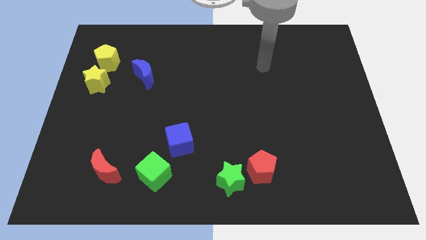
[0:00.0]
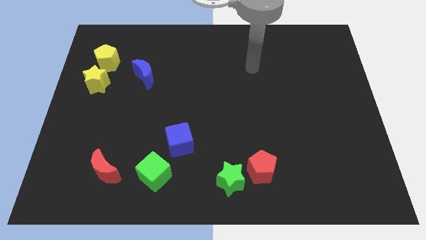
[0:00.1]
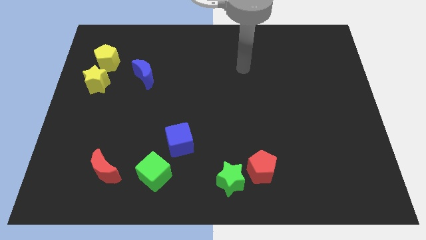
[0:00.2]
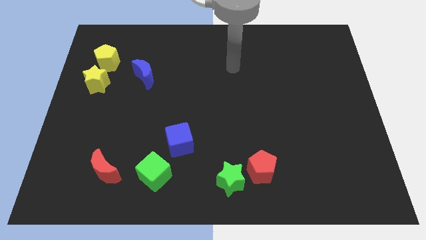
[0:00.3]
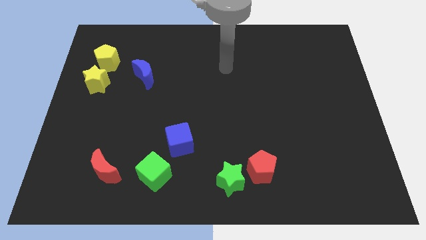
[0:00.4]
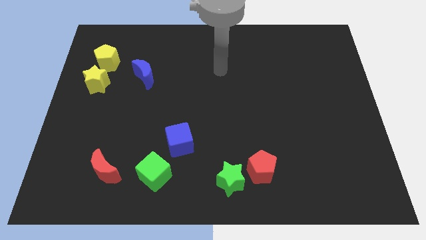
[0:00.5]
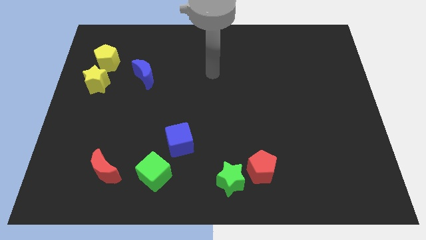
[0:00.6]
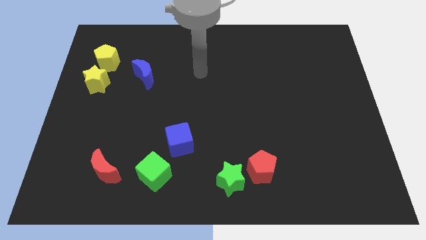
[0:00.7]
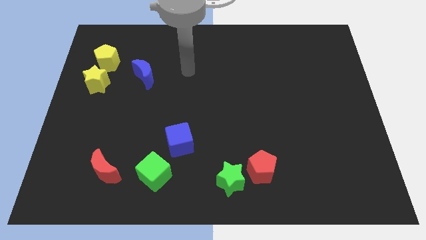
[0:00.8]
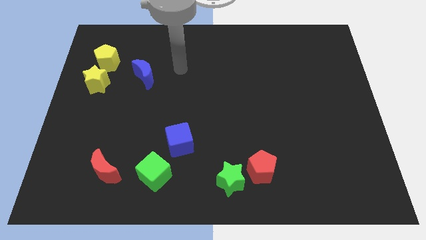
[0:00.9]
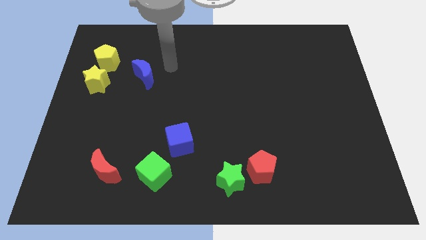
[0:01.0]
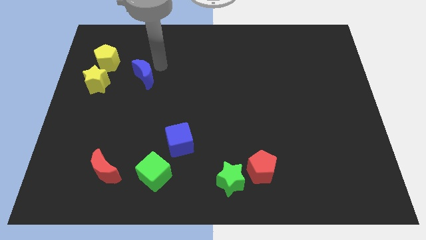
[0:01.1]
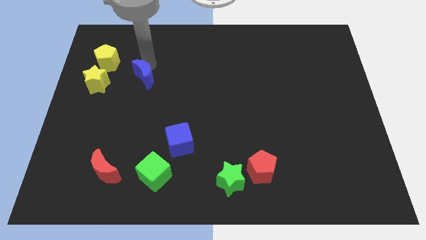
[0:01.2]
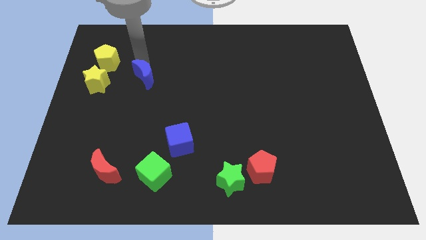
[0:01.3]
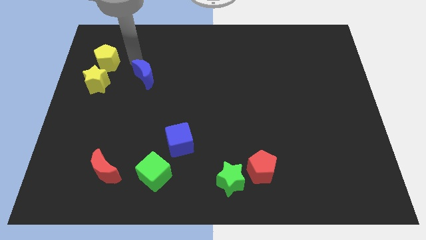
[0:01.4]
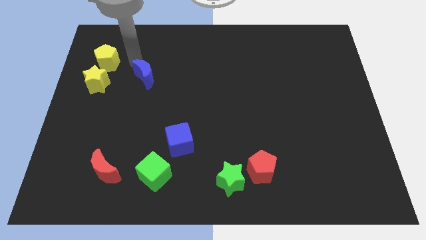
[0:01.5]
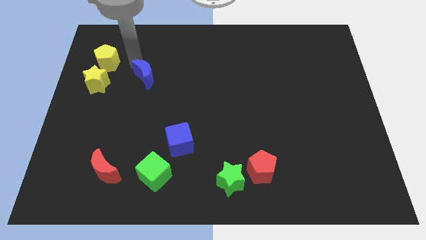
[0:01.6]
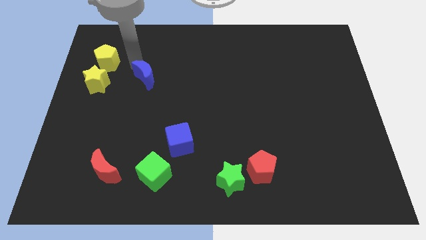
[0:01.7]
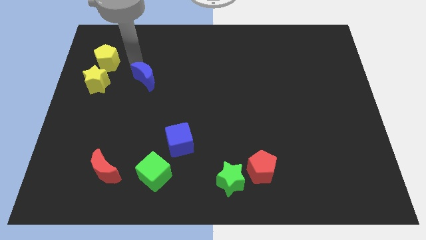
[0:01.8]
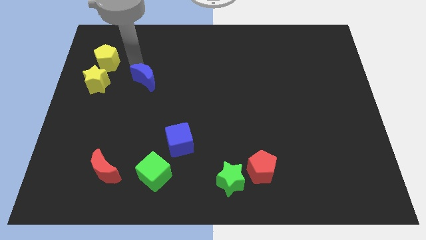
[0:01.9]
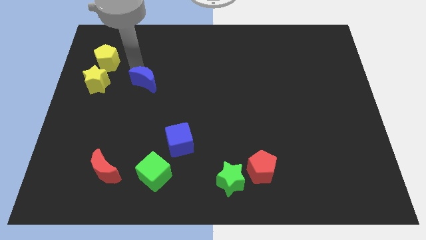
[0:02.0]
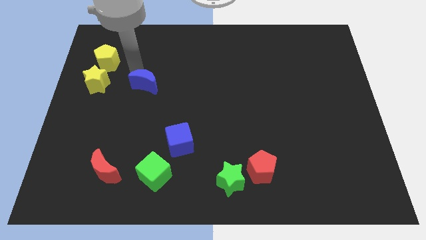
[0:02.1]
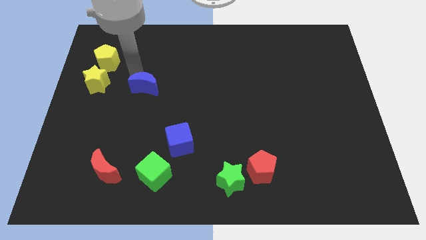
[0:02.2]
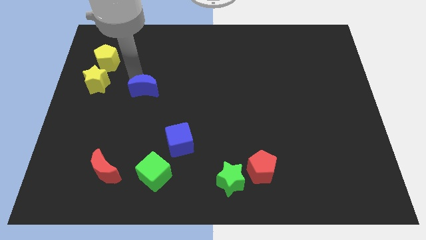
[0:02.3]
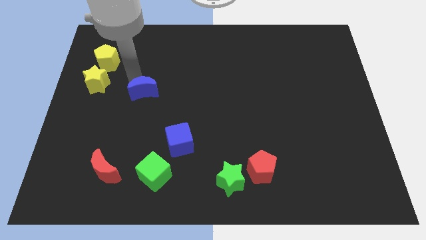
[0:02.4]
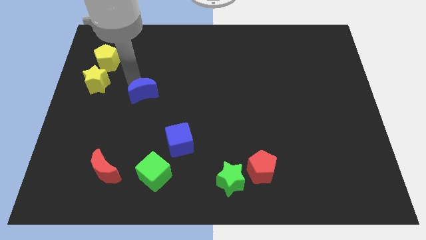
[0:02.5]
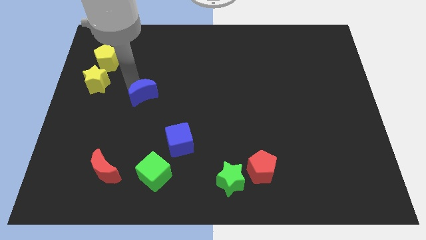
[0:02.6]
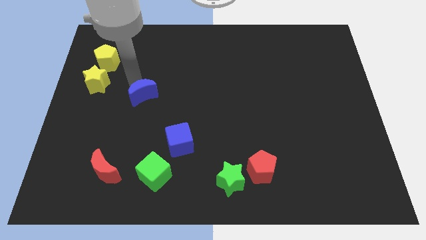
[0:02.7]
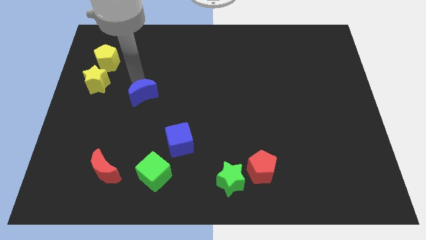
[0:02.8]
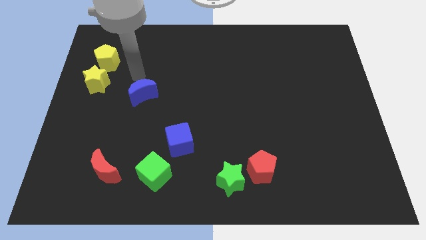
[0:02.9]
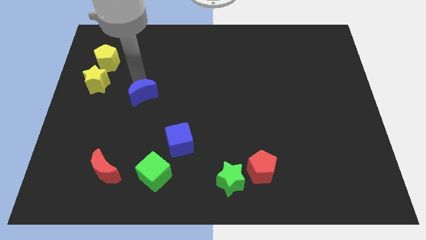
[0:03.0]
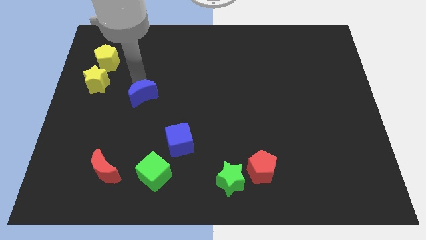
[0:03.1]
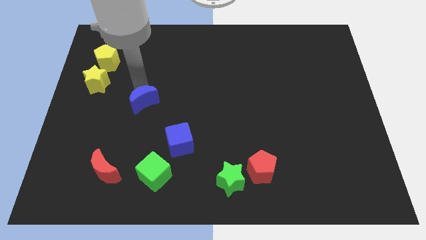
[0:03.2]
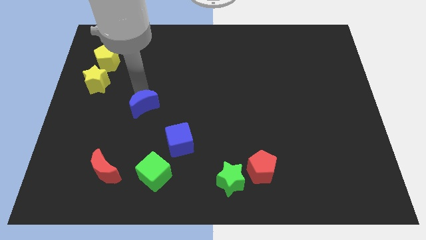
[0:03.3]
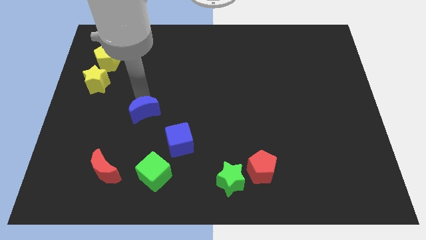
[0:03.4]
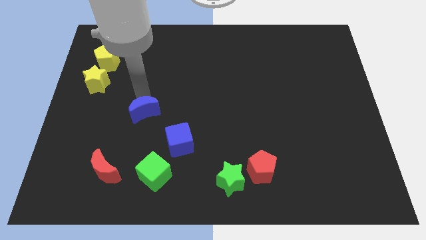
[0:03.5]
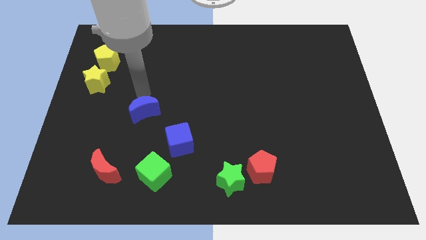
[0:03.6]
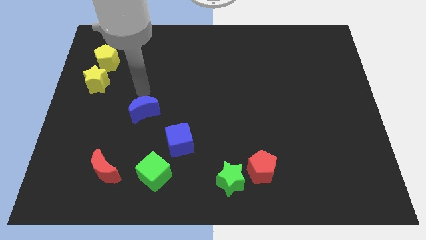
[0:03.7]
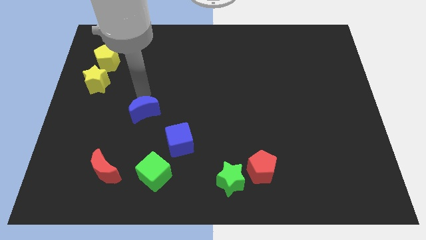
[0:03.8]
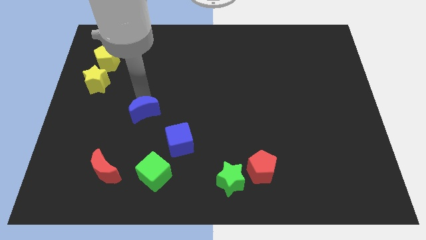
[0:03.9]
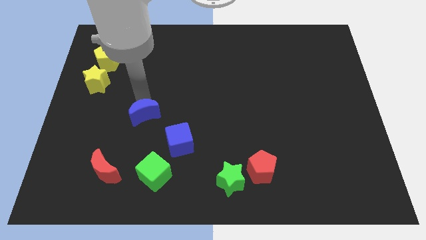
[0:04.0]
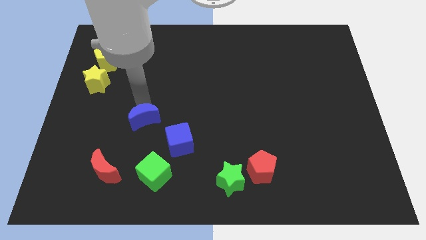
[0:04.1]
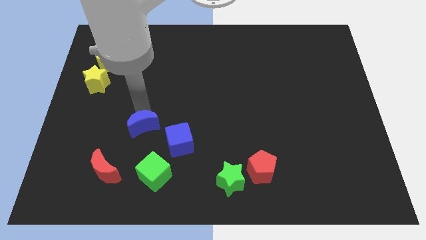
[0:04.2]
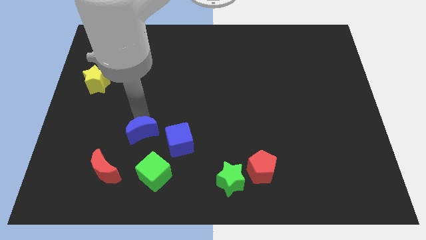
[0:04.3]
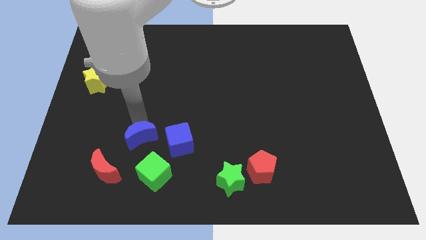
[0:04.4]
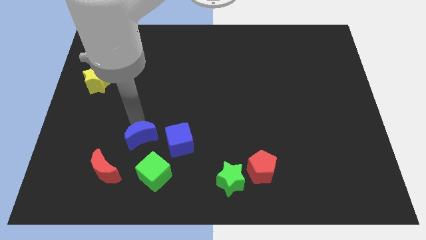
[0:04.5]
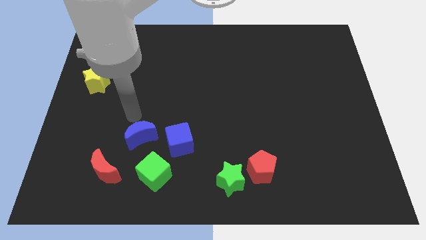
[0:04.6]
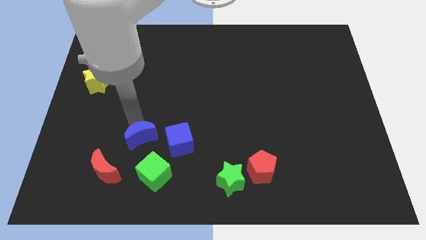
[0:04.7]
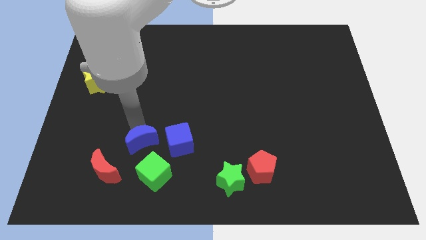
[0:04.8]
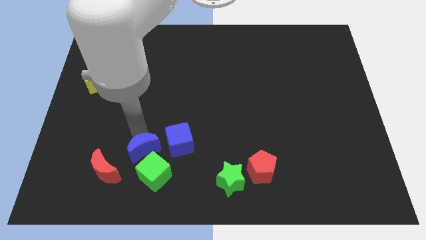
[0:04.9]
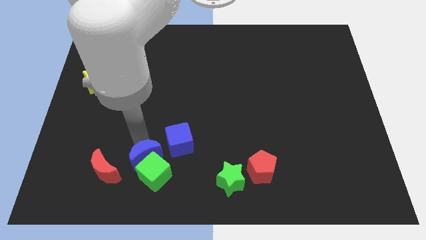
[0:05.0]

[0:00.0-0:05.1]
move the blue moon towards the green cube

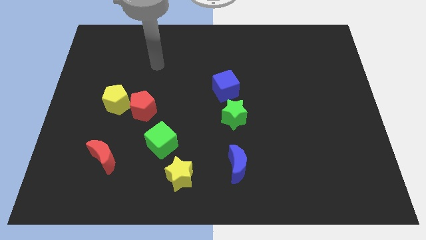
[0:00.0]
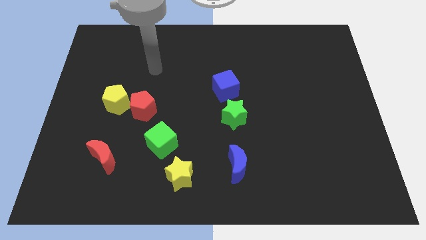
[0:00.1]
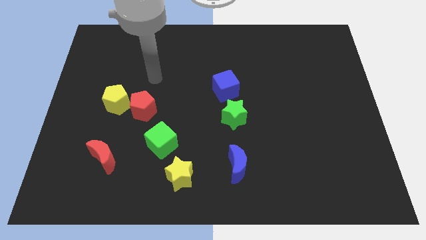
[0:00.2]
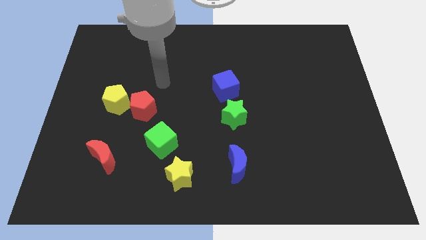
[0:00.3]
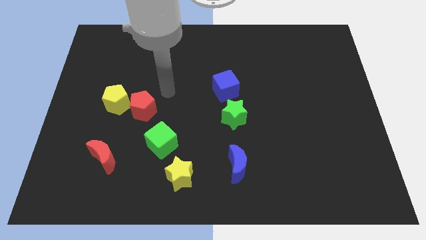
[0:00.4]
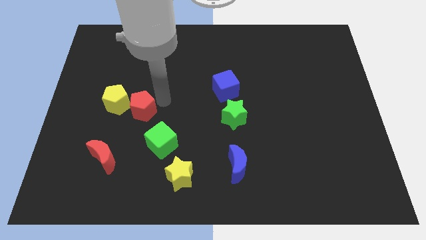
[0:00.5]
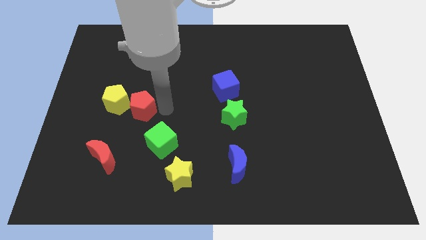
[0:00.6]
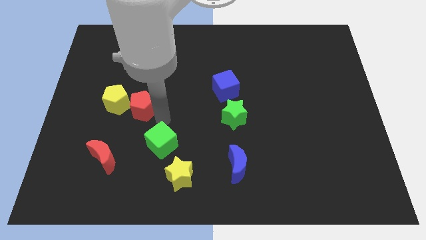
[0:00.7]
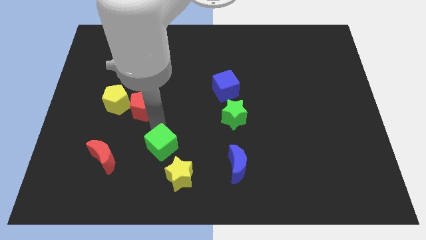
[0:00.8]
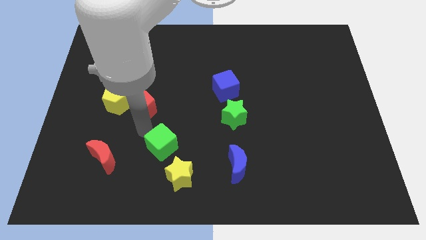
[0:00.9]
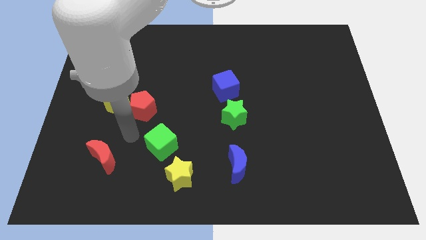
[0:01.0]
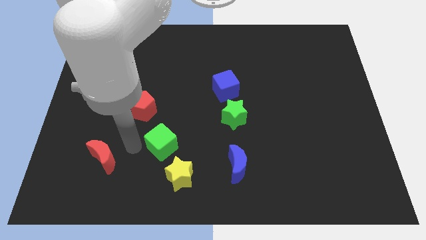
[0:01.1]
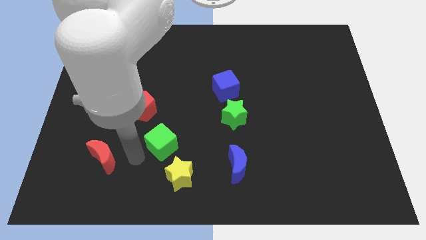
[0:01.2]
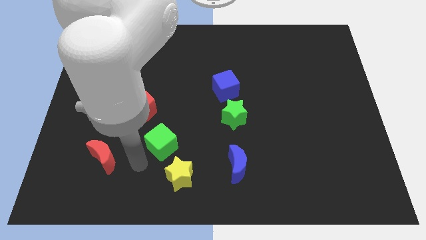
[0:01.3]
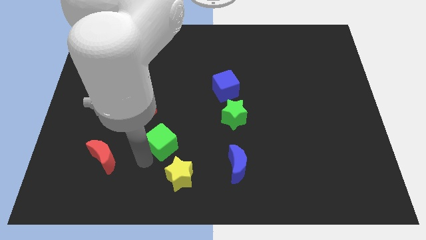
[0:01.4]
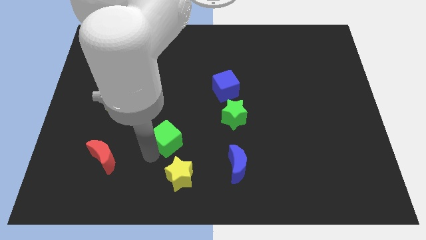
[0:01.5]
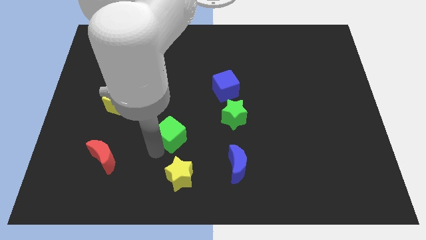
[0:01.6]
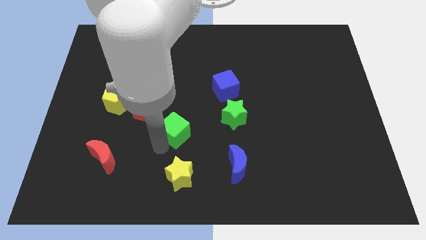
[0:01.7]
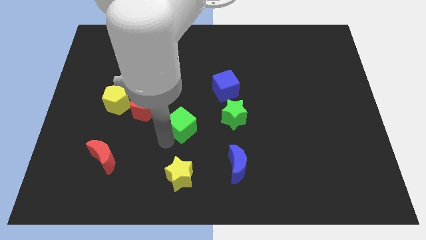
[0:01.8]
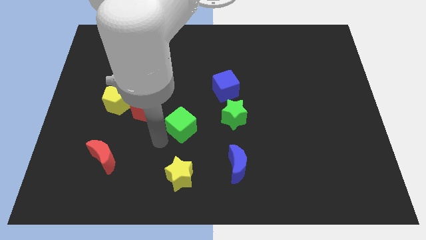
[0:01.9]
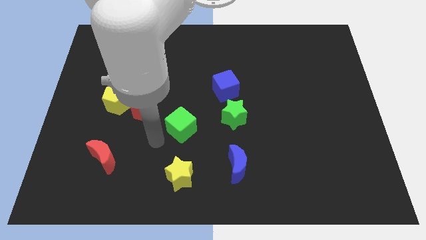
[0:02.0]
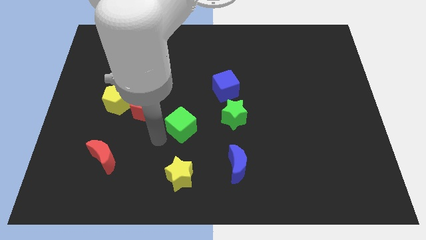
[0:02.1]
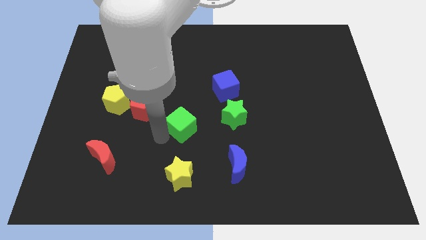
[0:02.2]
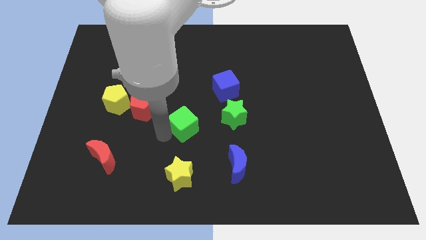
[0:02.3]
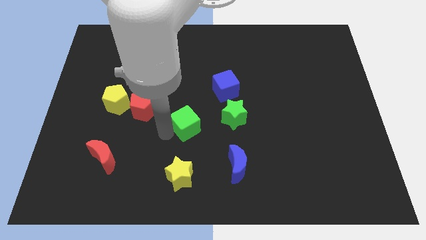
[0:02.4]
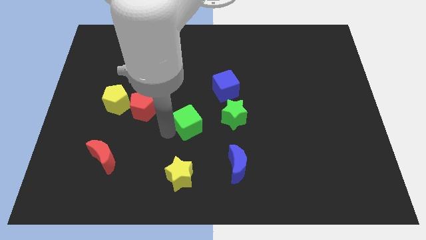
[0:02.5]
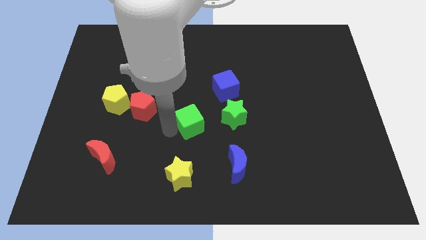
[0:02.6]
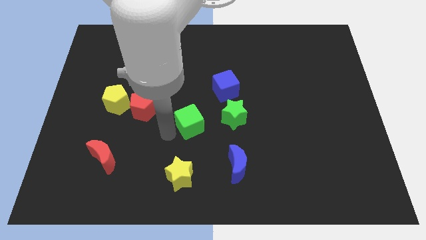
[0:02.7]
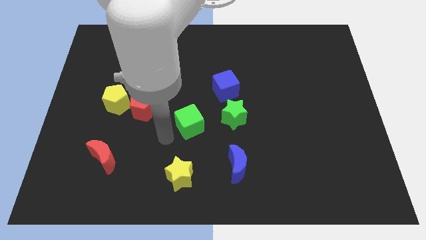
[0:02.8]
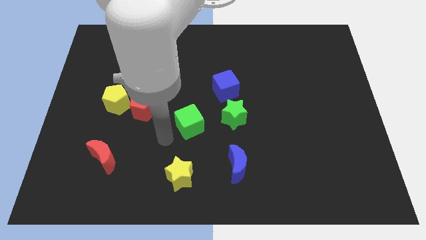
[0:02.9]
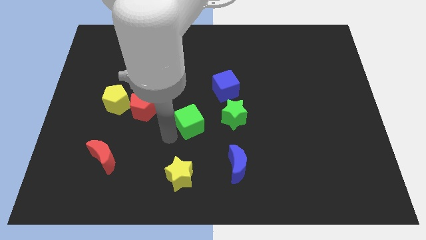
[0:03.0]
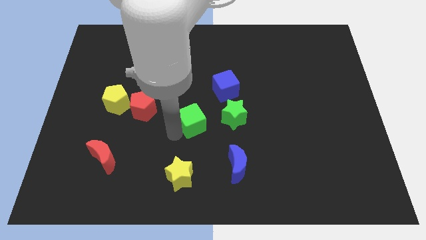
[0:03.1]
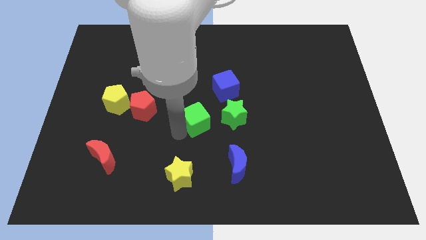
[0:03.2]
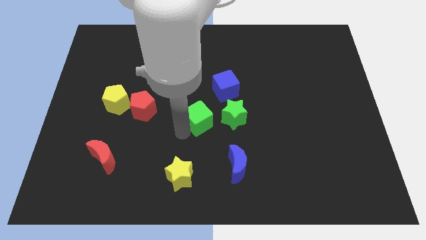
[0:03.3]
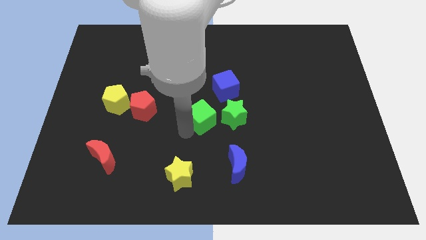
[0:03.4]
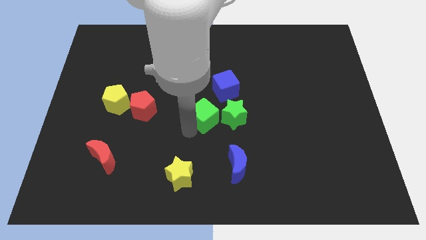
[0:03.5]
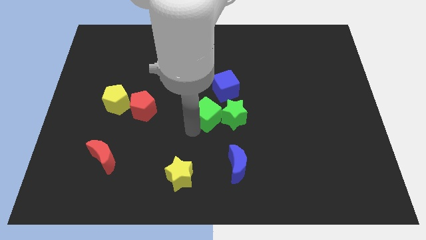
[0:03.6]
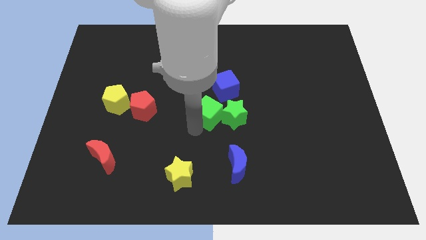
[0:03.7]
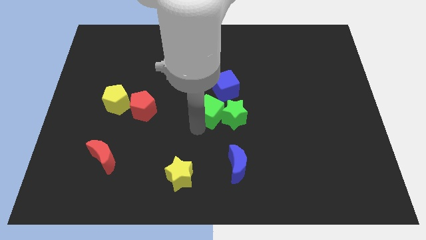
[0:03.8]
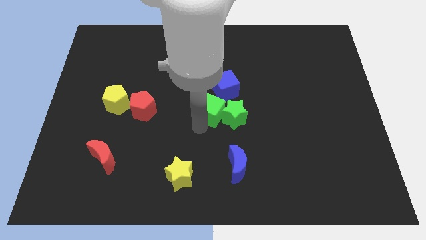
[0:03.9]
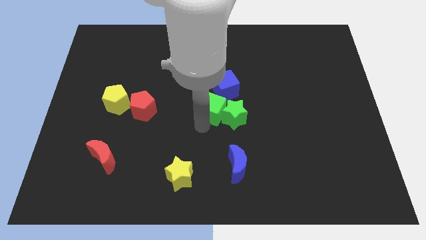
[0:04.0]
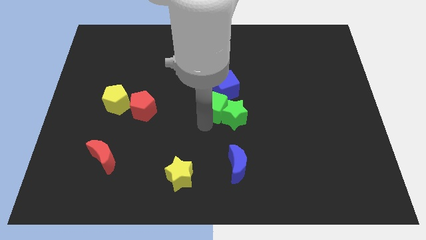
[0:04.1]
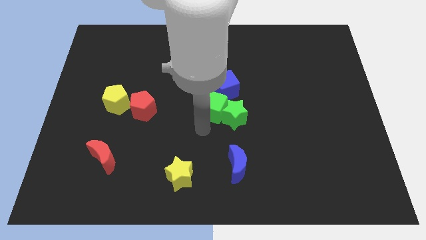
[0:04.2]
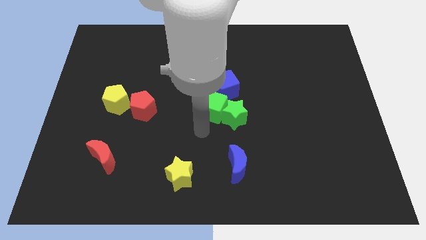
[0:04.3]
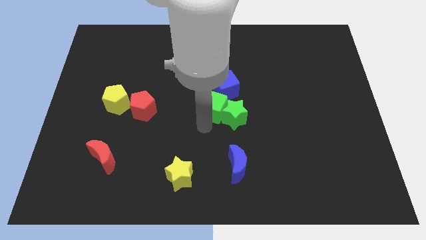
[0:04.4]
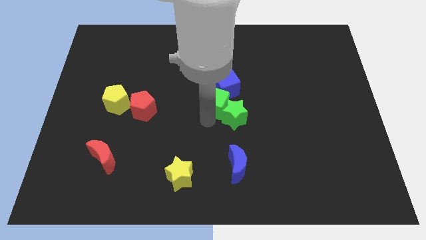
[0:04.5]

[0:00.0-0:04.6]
push the green cube towards the blue cube
